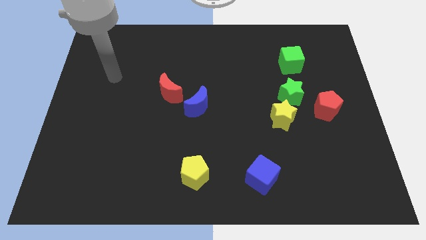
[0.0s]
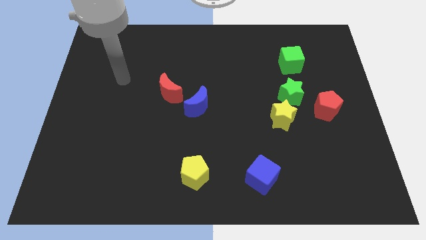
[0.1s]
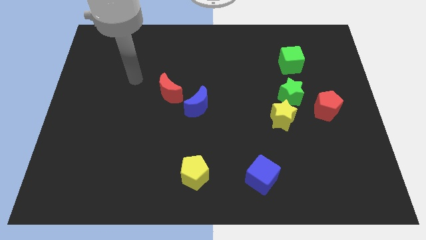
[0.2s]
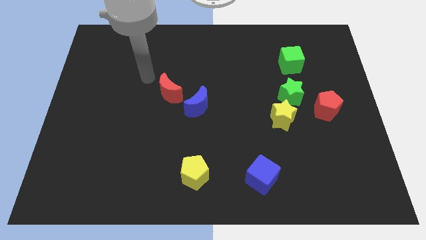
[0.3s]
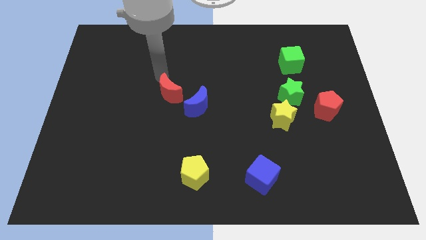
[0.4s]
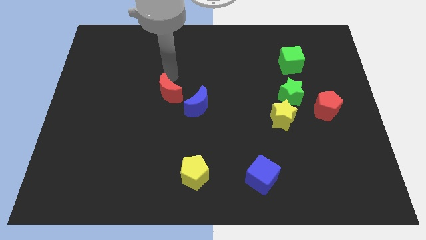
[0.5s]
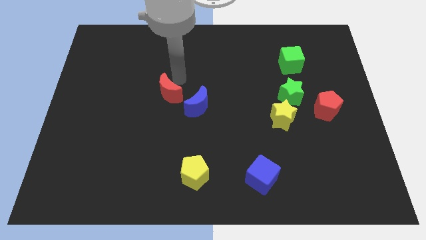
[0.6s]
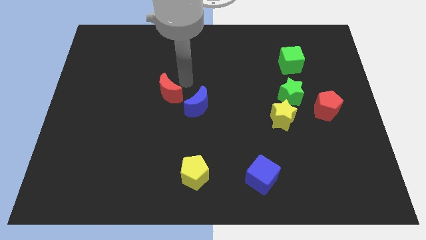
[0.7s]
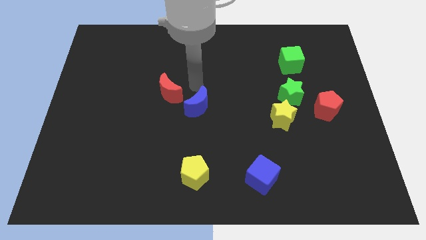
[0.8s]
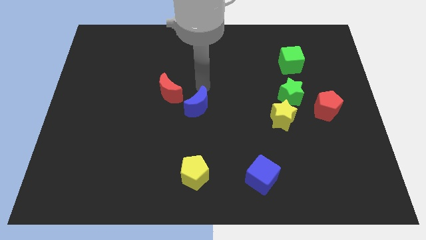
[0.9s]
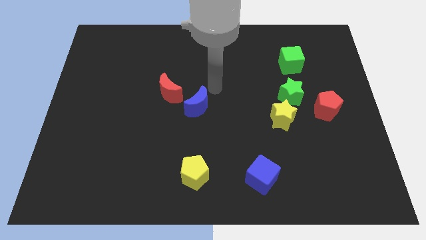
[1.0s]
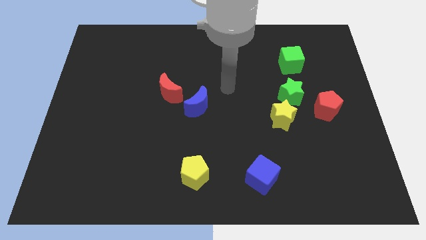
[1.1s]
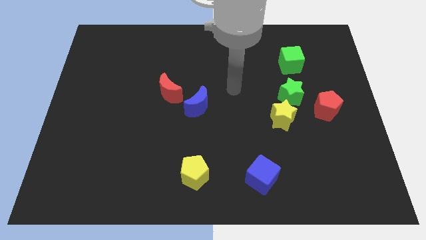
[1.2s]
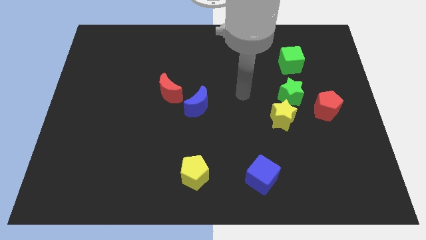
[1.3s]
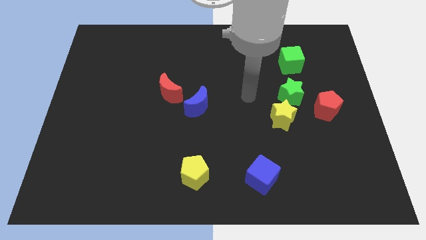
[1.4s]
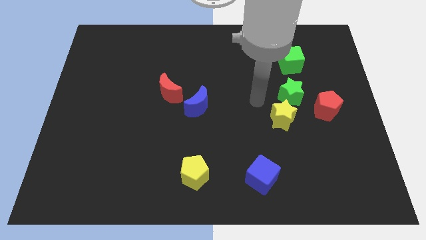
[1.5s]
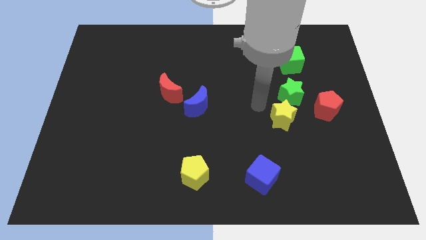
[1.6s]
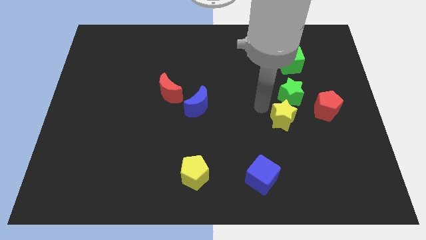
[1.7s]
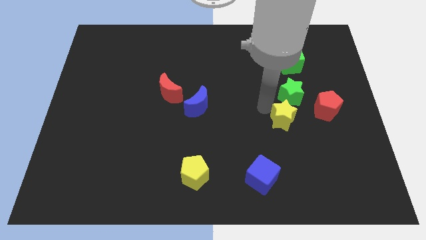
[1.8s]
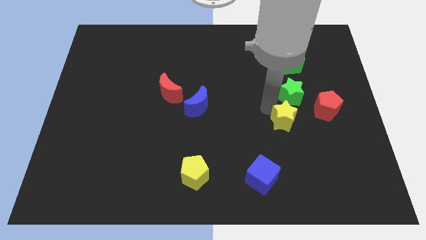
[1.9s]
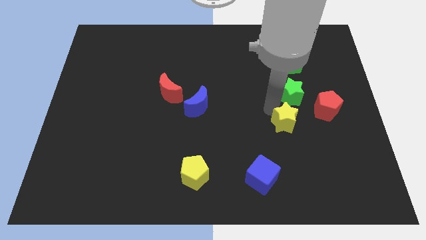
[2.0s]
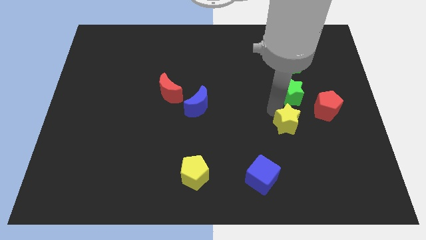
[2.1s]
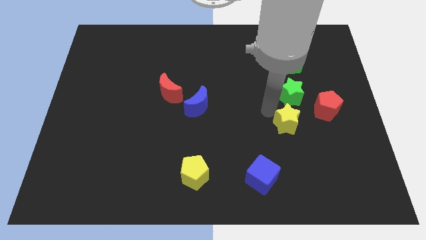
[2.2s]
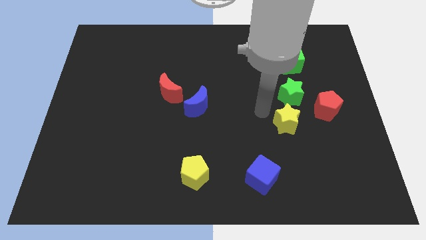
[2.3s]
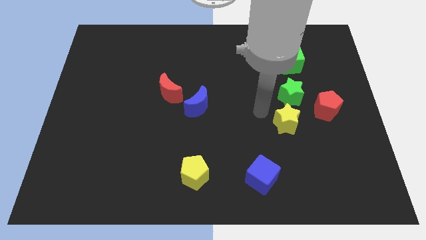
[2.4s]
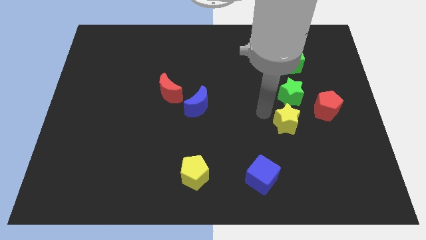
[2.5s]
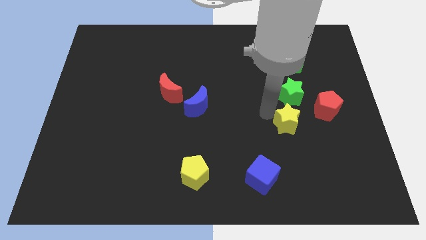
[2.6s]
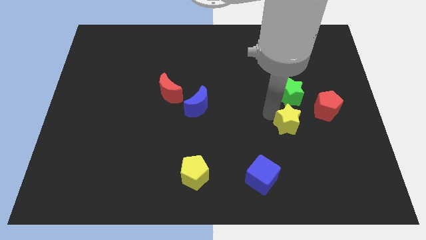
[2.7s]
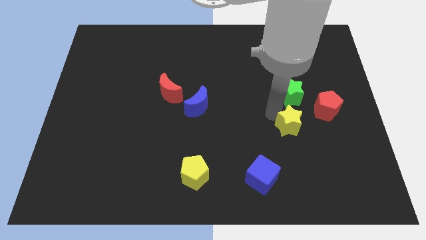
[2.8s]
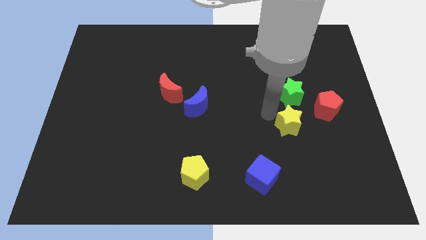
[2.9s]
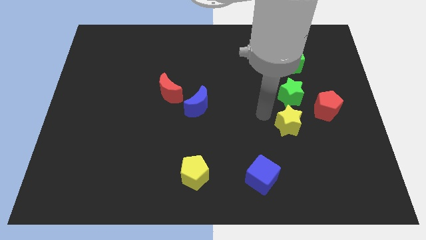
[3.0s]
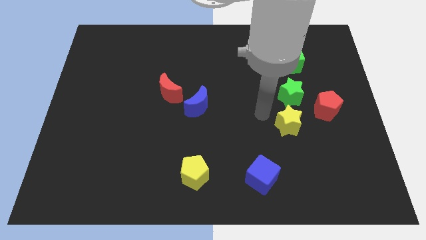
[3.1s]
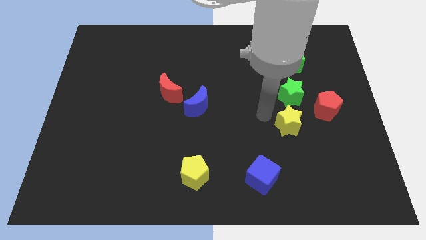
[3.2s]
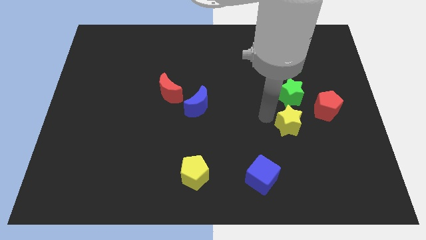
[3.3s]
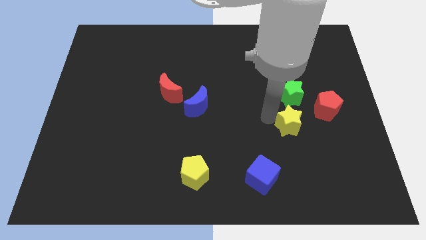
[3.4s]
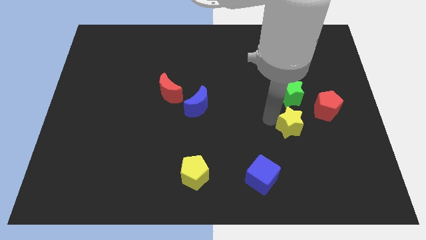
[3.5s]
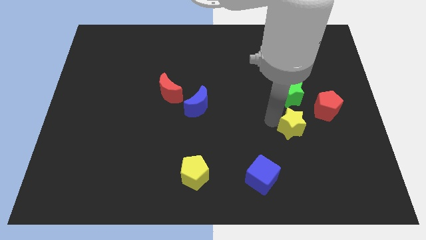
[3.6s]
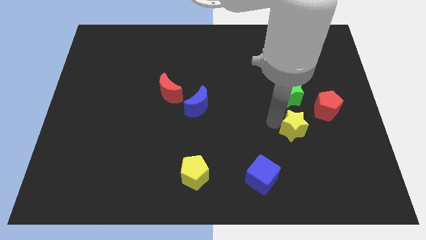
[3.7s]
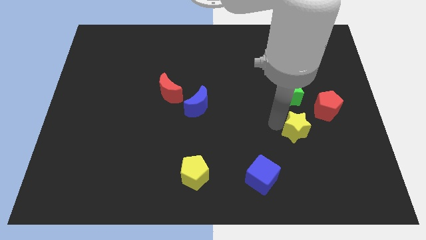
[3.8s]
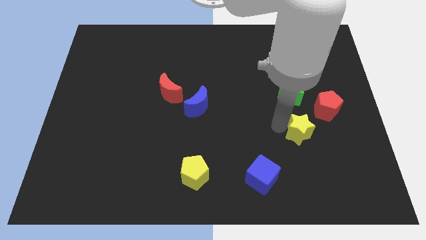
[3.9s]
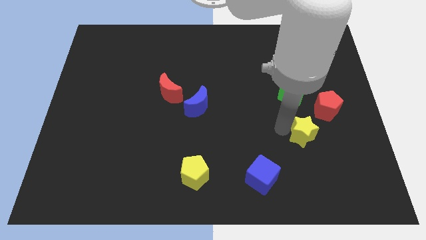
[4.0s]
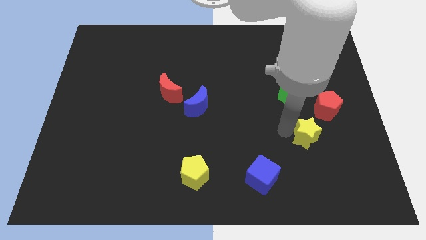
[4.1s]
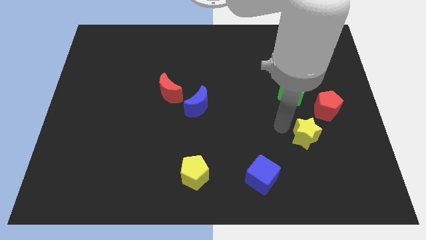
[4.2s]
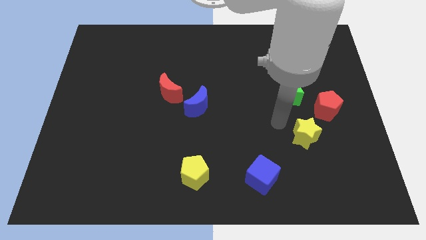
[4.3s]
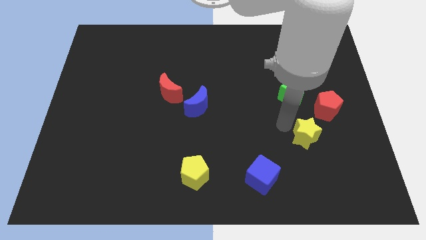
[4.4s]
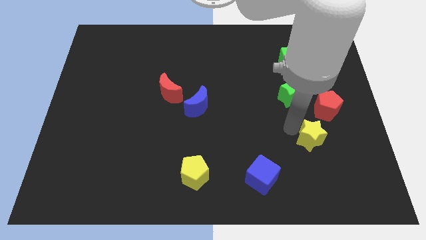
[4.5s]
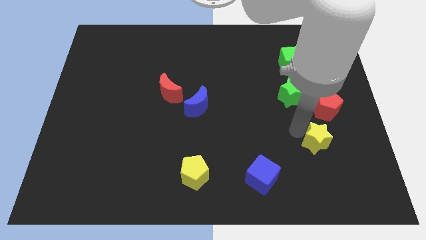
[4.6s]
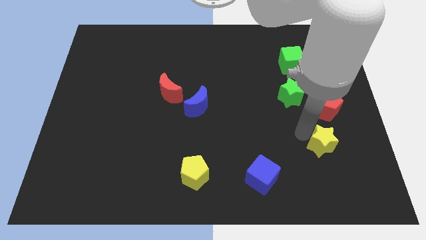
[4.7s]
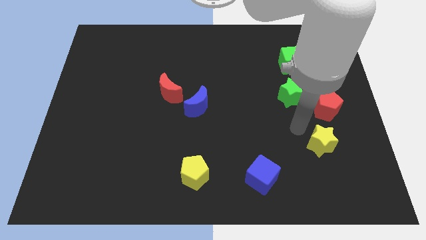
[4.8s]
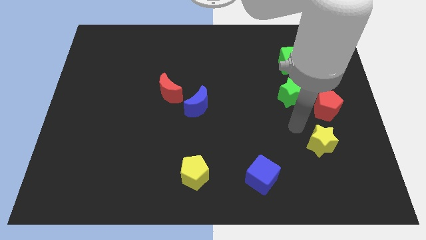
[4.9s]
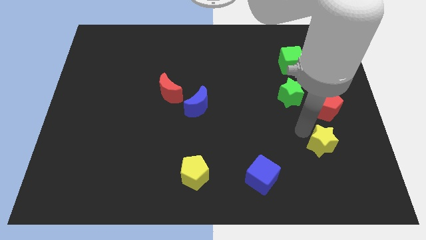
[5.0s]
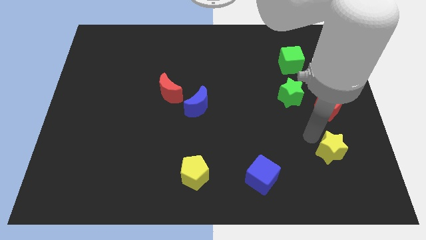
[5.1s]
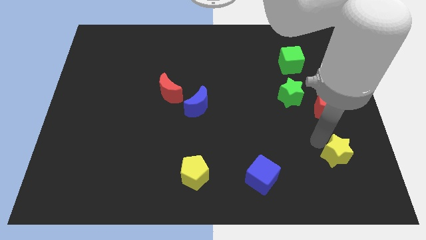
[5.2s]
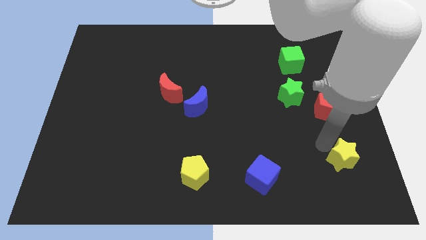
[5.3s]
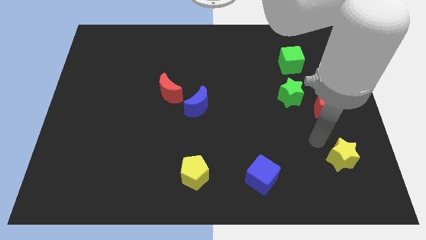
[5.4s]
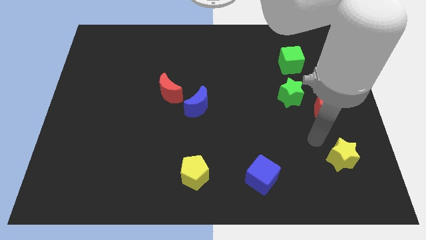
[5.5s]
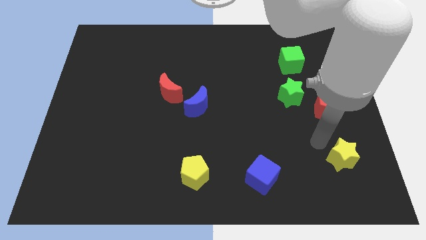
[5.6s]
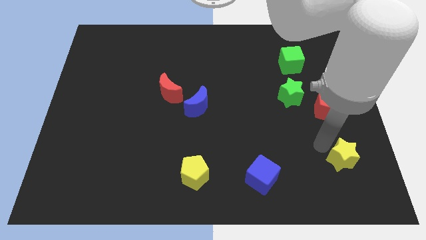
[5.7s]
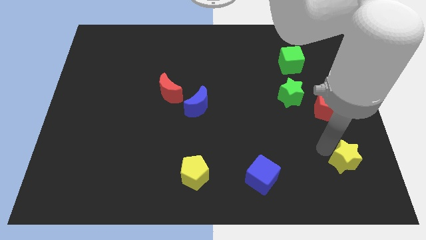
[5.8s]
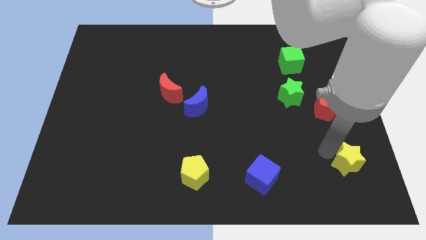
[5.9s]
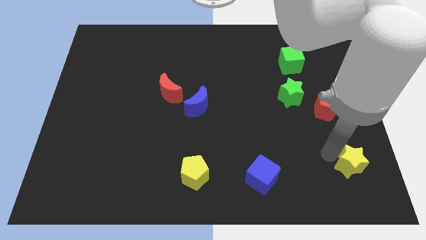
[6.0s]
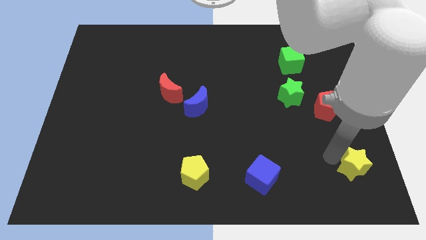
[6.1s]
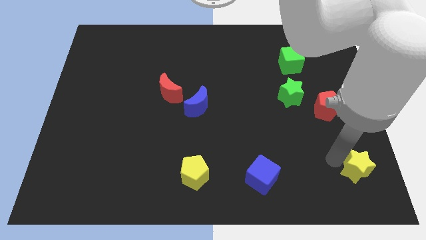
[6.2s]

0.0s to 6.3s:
push the yellow star to the bottom right corner

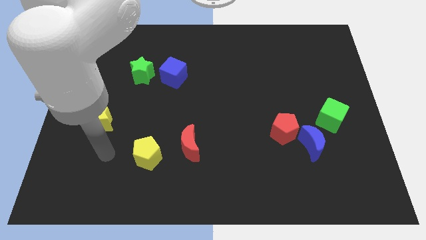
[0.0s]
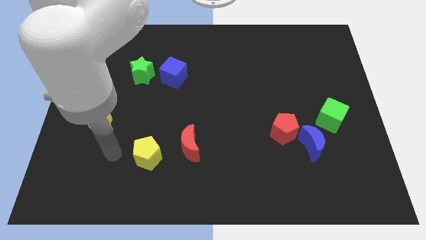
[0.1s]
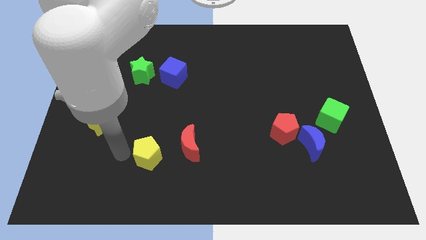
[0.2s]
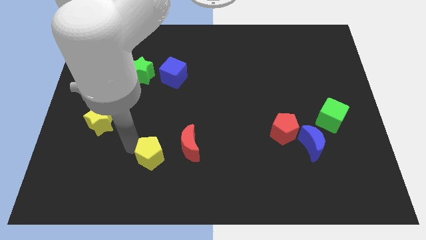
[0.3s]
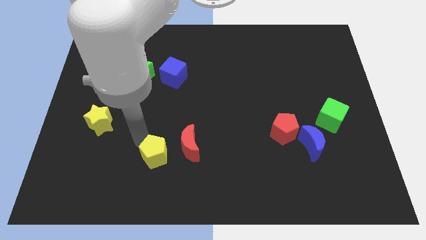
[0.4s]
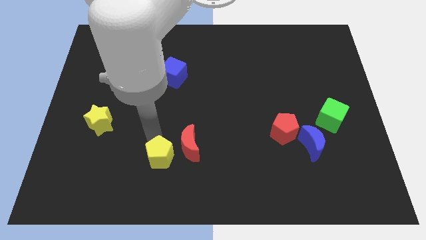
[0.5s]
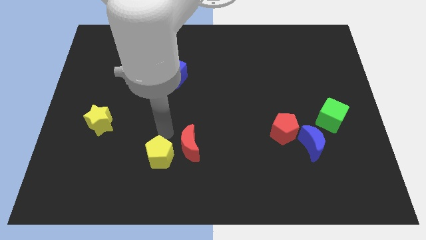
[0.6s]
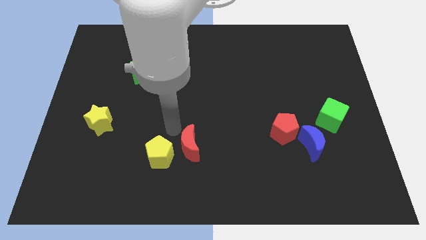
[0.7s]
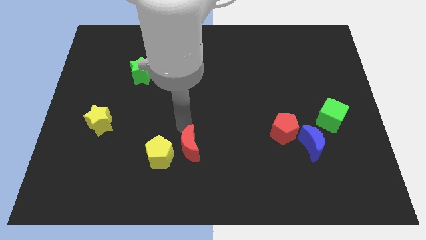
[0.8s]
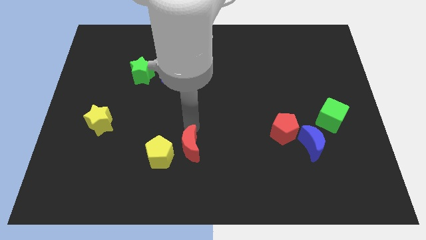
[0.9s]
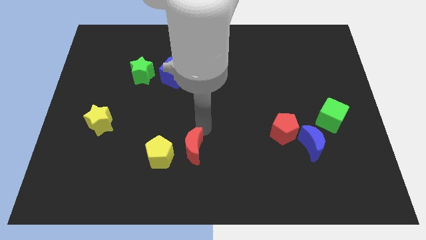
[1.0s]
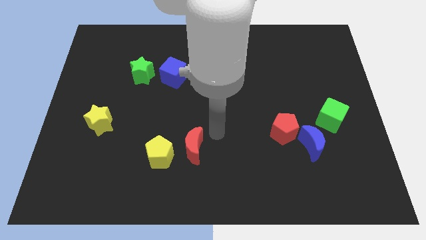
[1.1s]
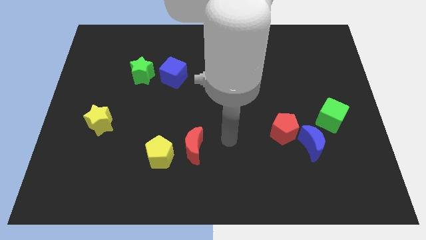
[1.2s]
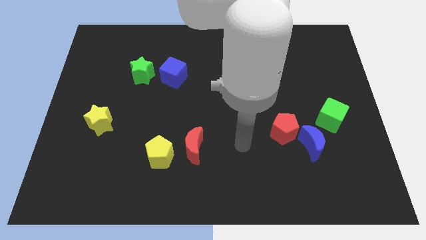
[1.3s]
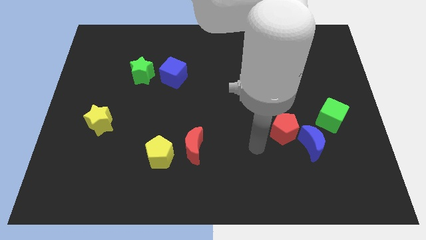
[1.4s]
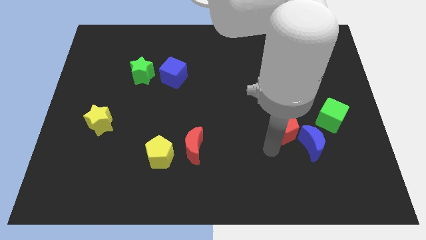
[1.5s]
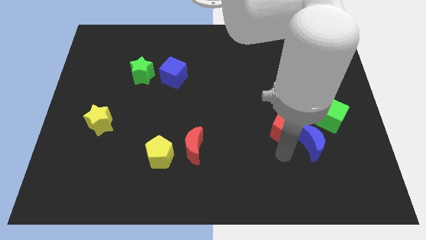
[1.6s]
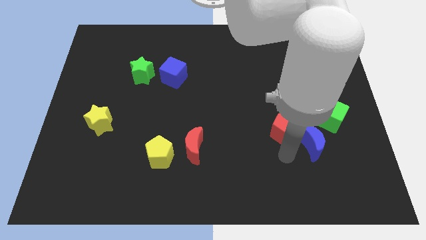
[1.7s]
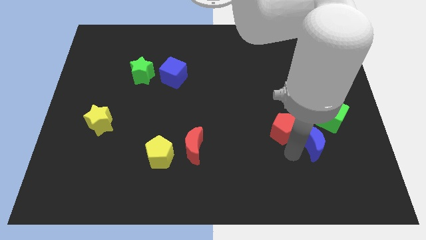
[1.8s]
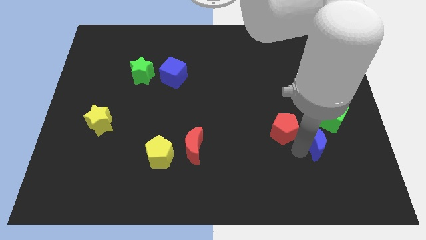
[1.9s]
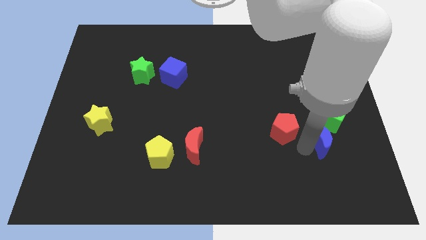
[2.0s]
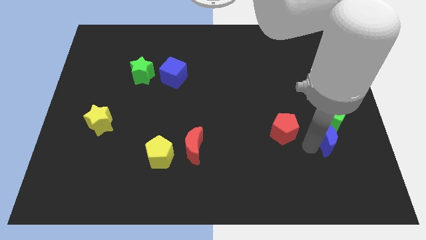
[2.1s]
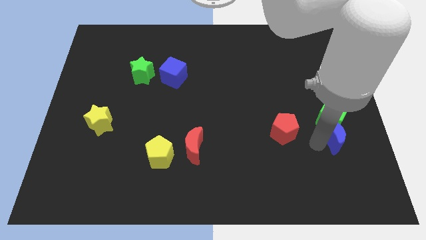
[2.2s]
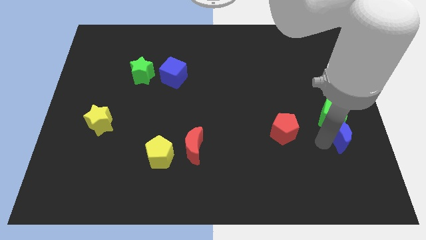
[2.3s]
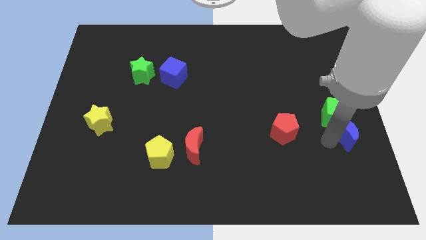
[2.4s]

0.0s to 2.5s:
put the blue moon to the right side of the board
